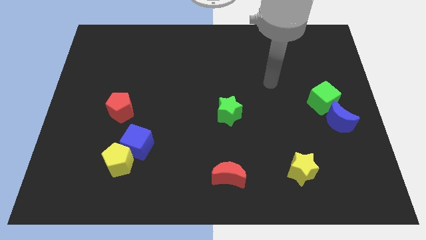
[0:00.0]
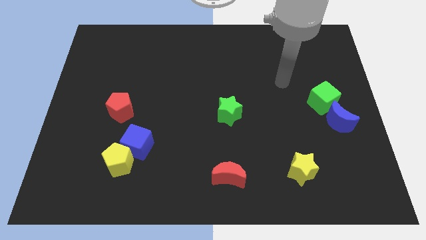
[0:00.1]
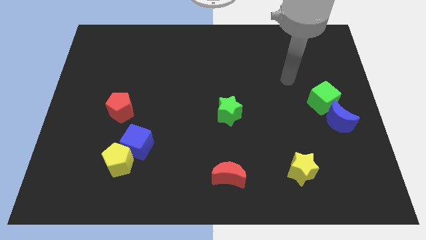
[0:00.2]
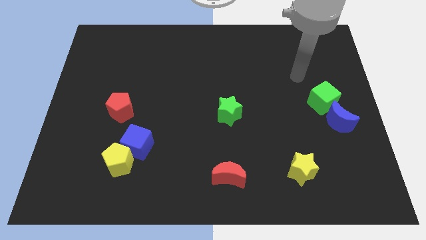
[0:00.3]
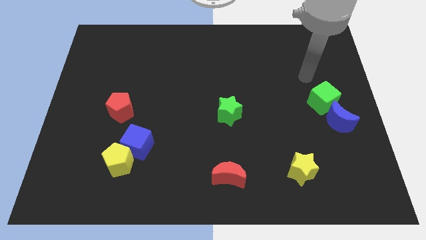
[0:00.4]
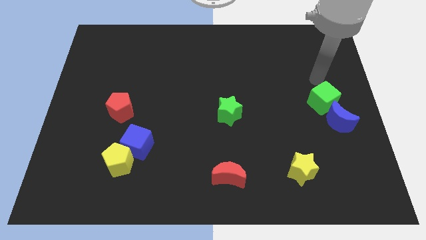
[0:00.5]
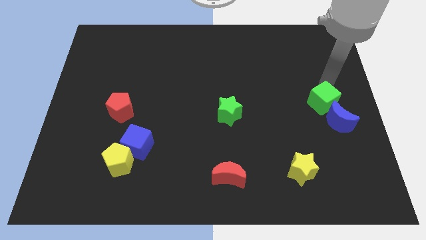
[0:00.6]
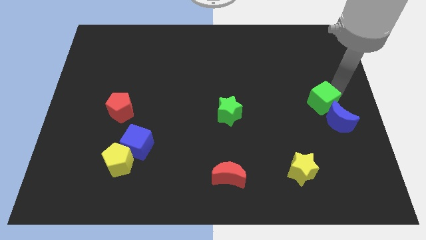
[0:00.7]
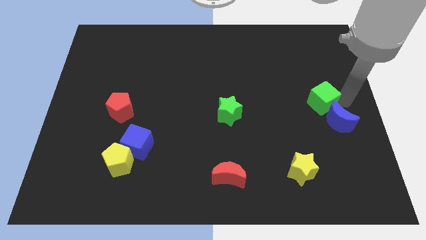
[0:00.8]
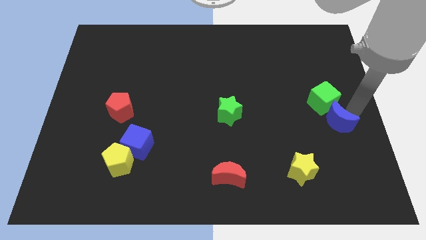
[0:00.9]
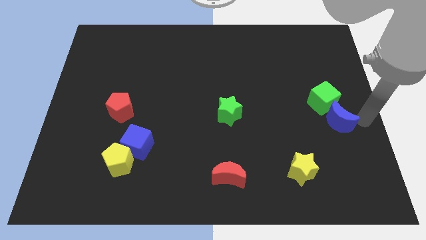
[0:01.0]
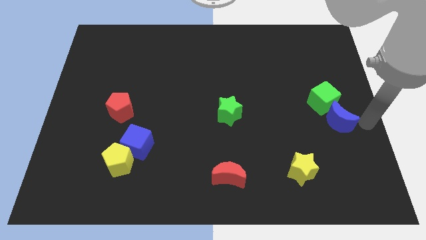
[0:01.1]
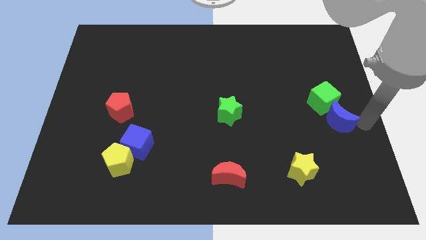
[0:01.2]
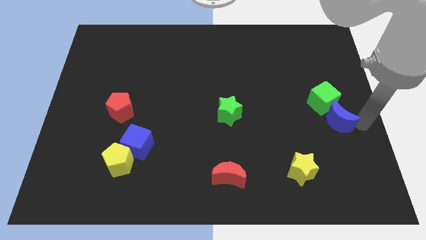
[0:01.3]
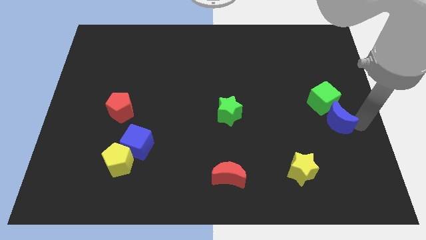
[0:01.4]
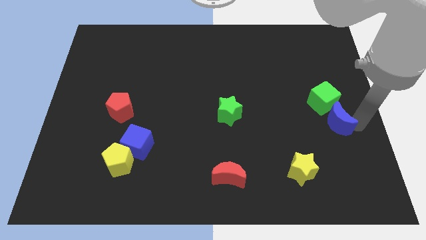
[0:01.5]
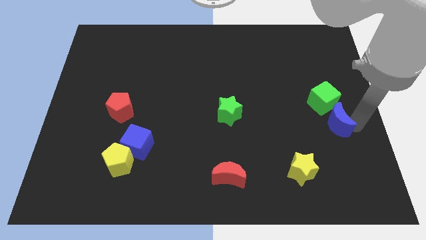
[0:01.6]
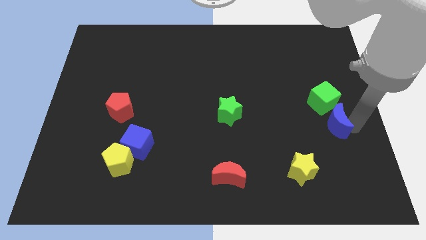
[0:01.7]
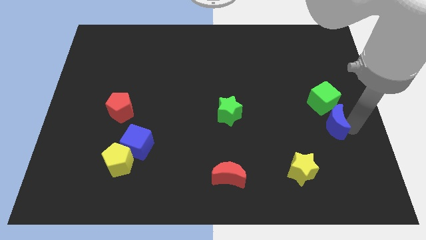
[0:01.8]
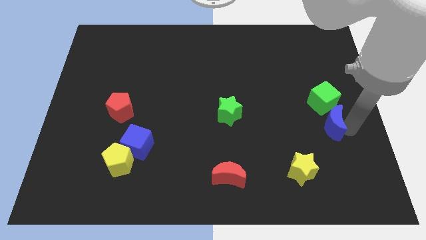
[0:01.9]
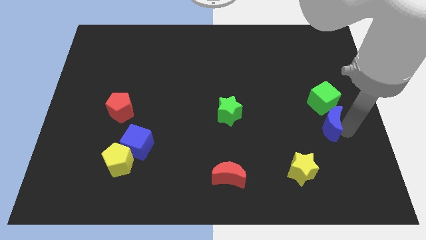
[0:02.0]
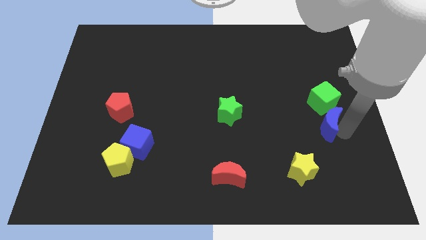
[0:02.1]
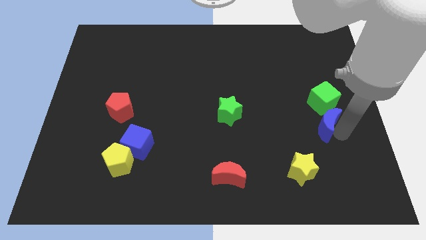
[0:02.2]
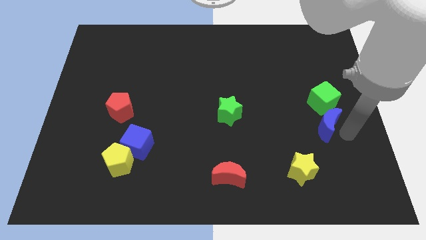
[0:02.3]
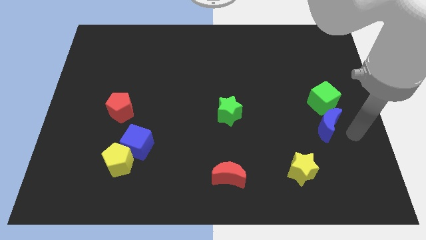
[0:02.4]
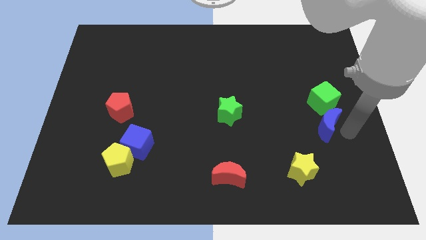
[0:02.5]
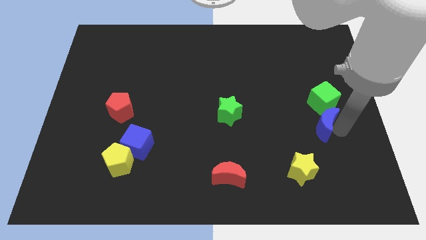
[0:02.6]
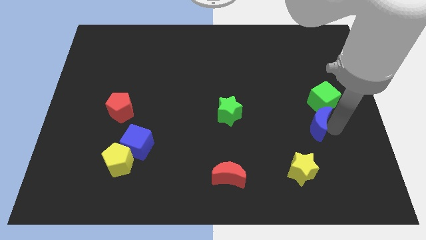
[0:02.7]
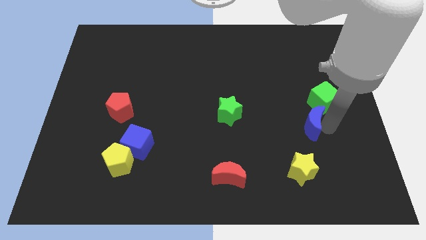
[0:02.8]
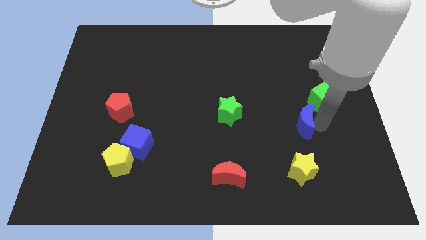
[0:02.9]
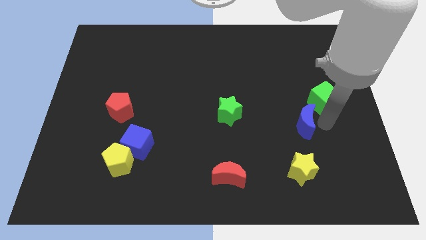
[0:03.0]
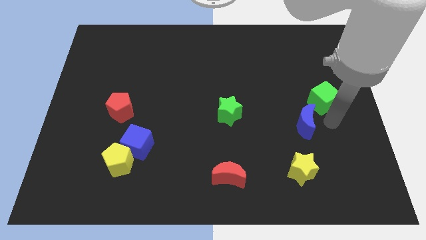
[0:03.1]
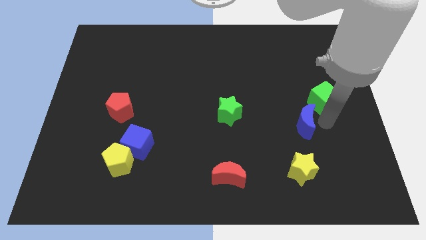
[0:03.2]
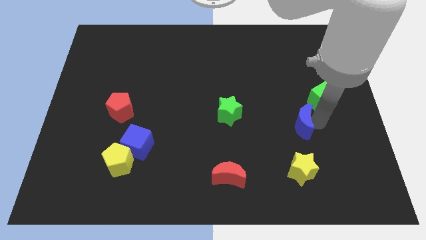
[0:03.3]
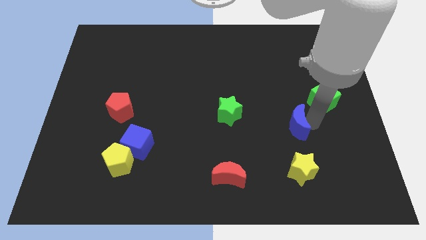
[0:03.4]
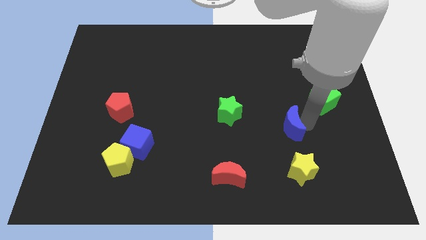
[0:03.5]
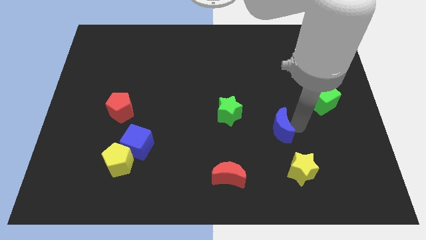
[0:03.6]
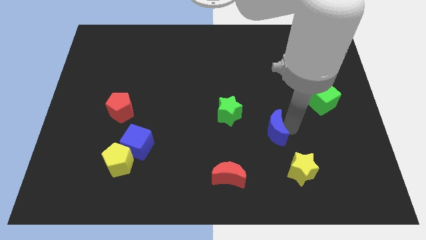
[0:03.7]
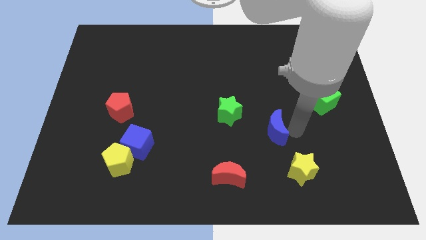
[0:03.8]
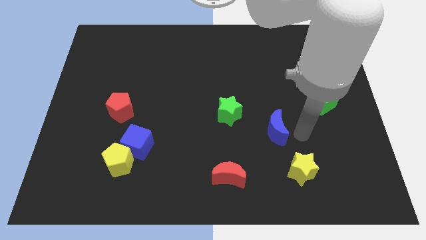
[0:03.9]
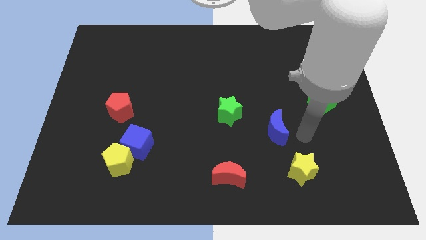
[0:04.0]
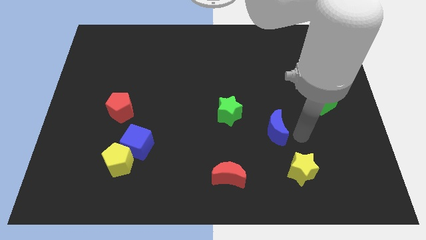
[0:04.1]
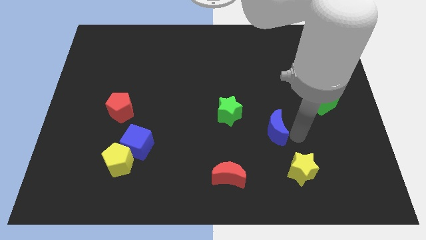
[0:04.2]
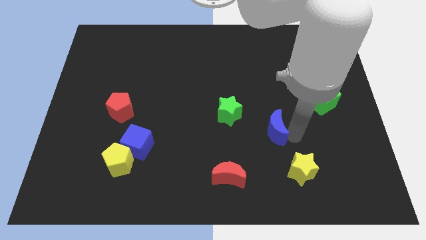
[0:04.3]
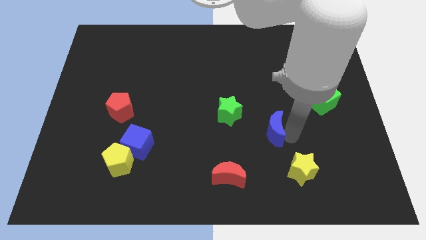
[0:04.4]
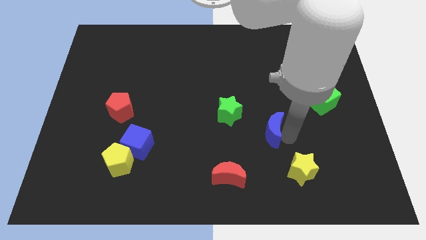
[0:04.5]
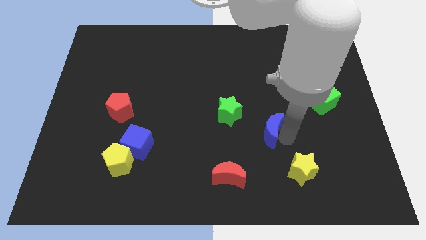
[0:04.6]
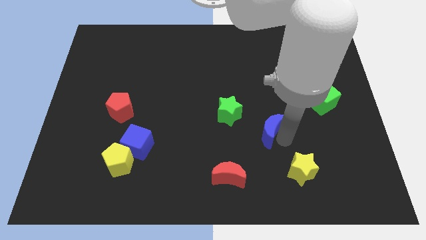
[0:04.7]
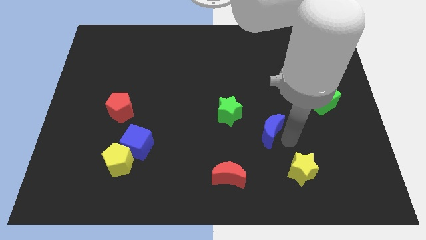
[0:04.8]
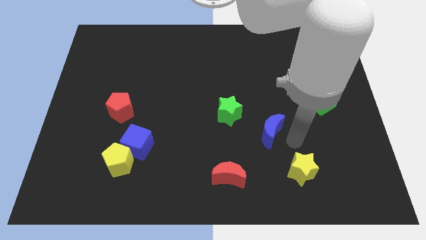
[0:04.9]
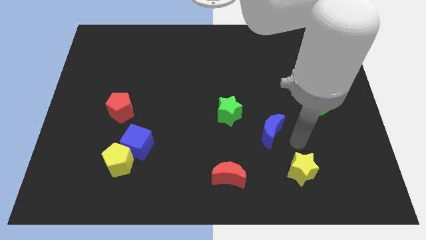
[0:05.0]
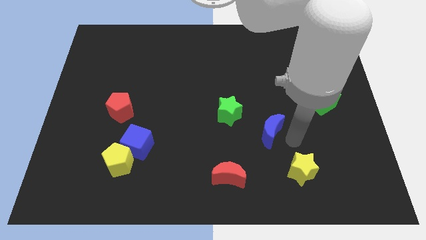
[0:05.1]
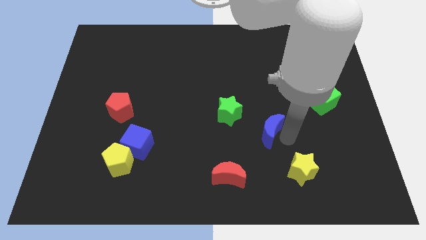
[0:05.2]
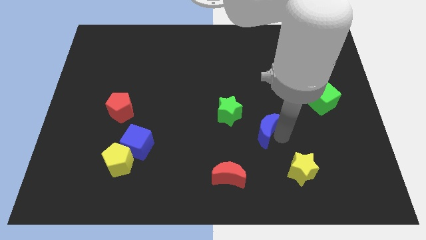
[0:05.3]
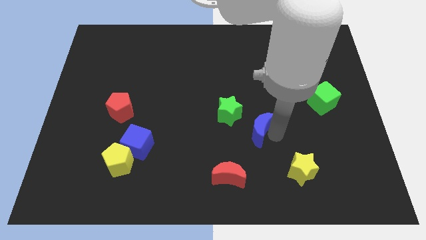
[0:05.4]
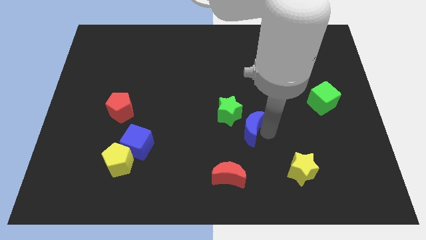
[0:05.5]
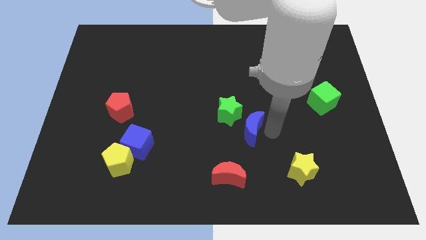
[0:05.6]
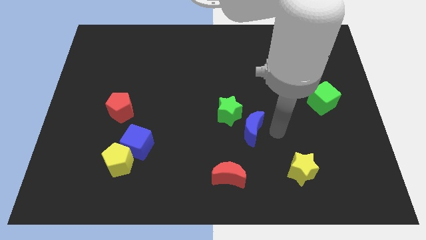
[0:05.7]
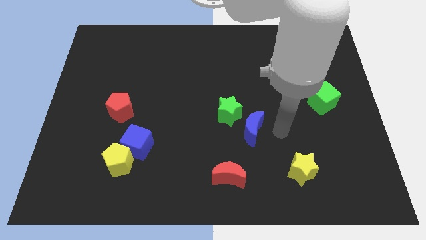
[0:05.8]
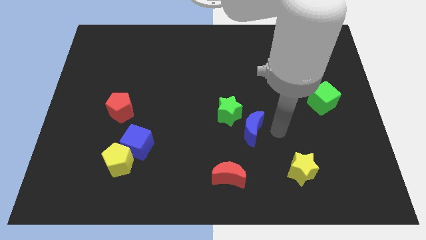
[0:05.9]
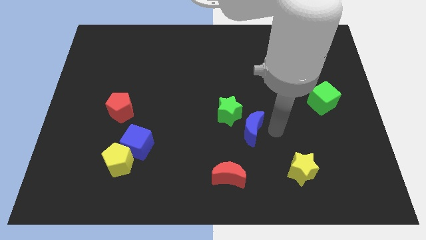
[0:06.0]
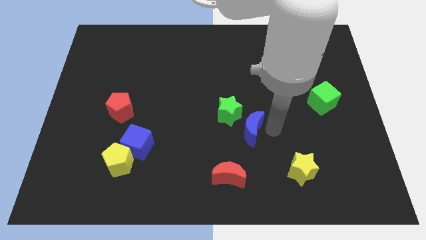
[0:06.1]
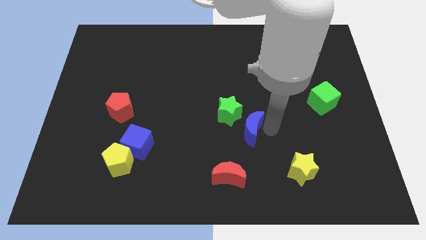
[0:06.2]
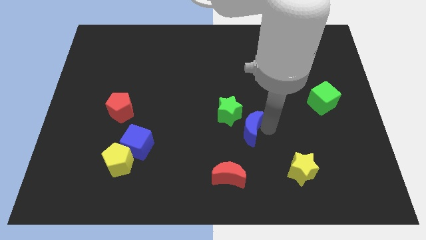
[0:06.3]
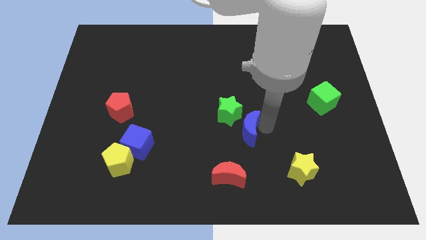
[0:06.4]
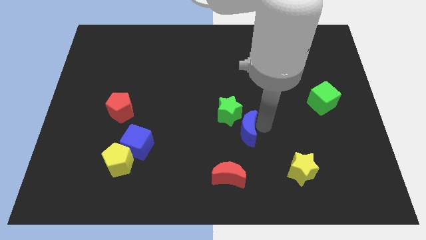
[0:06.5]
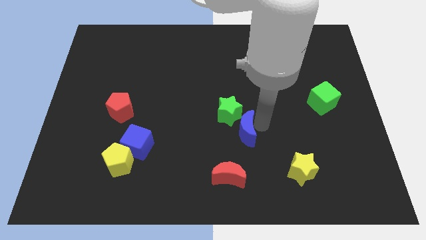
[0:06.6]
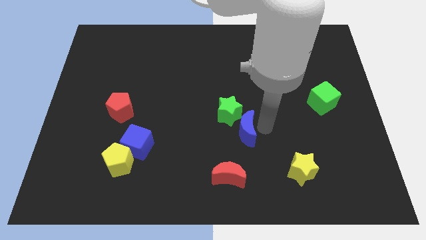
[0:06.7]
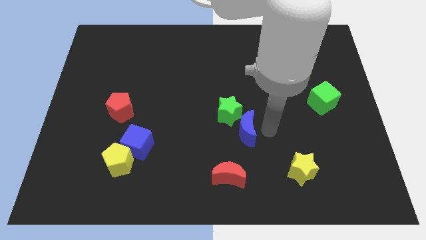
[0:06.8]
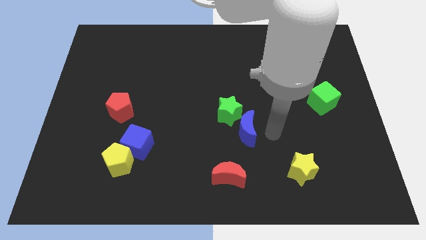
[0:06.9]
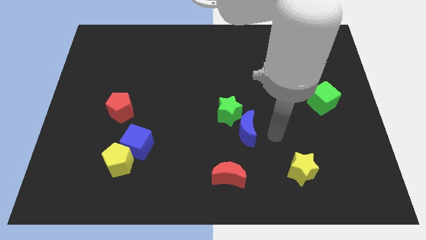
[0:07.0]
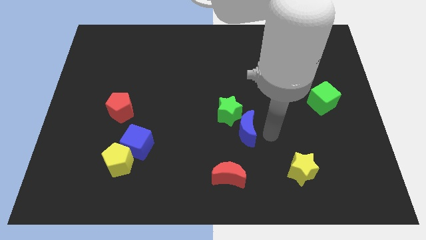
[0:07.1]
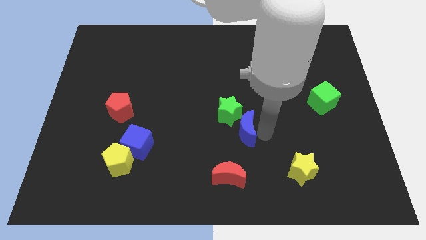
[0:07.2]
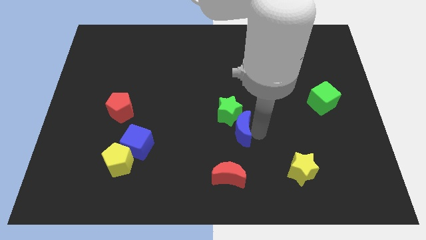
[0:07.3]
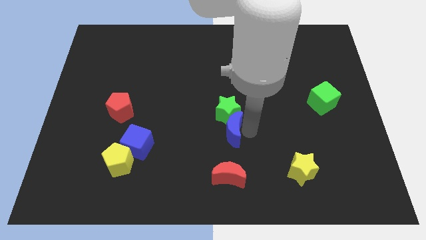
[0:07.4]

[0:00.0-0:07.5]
move the blue moon diagonally down and to the left of the green star
